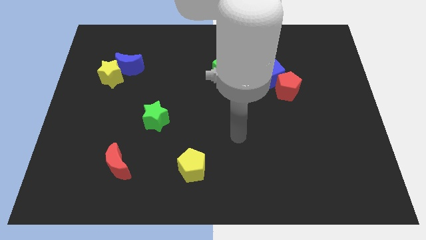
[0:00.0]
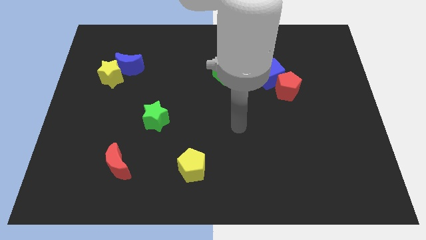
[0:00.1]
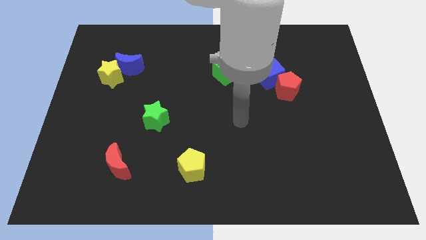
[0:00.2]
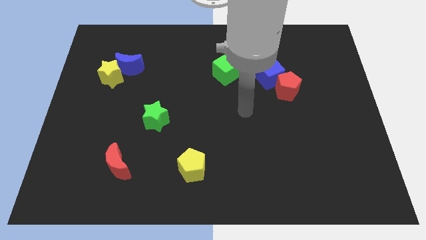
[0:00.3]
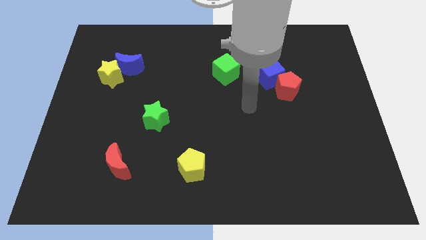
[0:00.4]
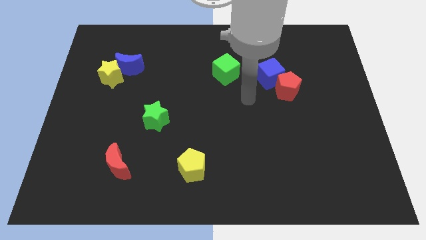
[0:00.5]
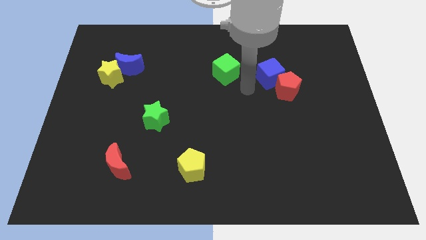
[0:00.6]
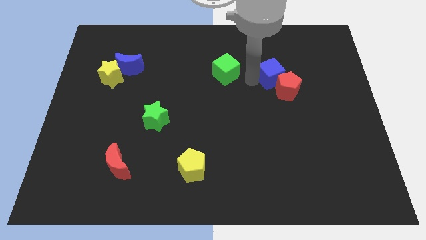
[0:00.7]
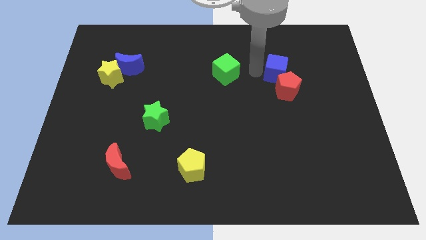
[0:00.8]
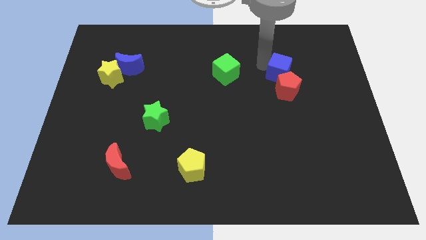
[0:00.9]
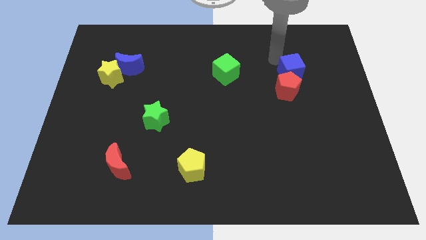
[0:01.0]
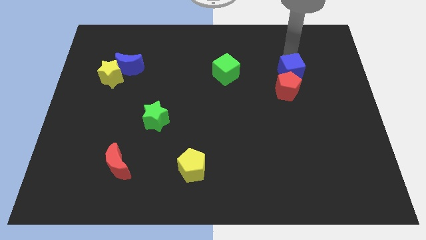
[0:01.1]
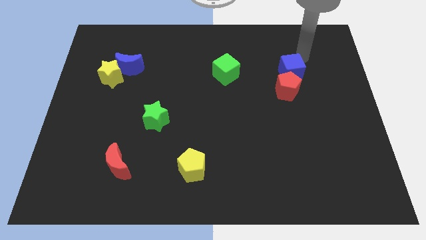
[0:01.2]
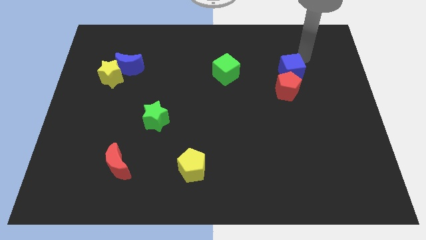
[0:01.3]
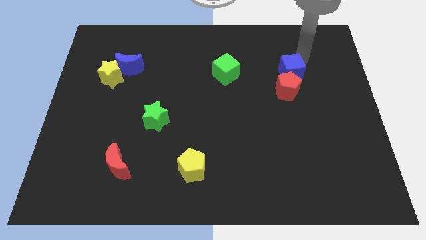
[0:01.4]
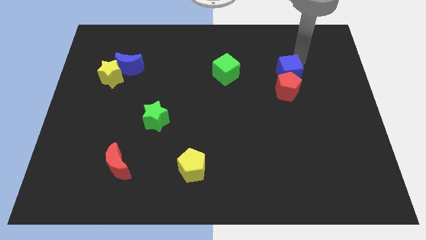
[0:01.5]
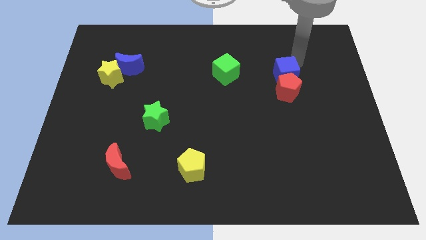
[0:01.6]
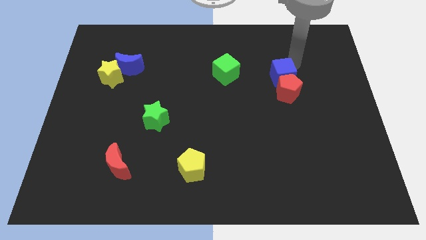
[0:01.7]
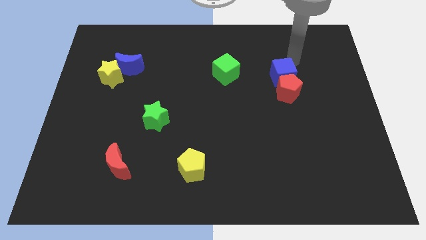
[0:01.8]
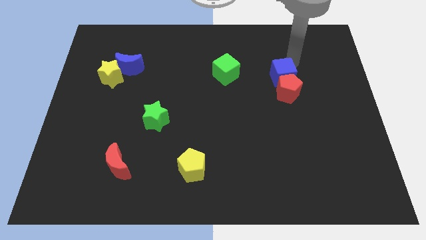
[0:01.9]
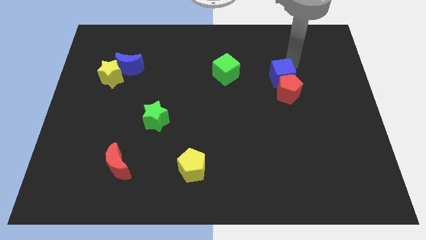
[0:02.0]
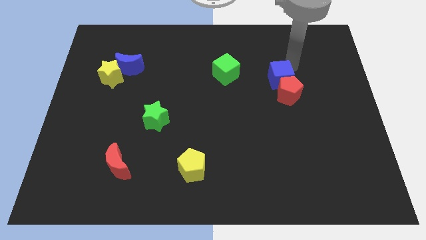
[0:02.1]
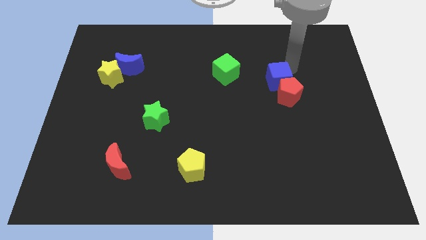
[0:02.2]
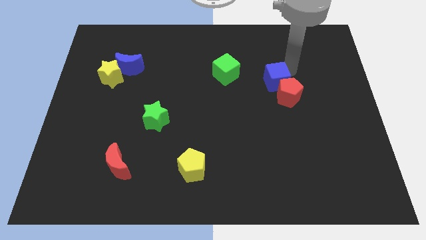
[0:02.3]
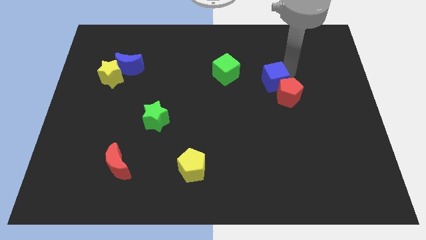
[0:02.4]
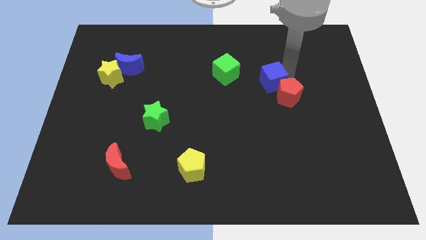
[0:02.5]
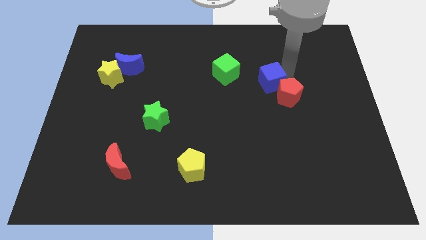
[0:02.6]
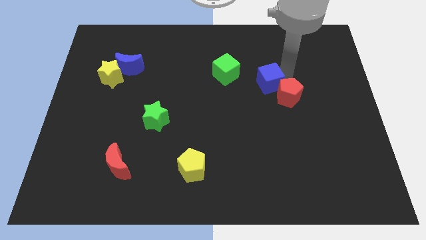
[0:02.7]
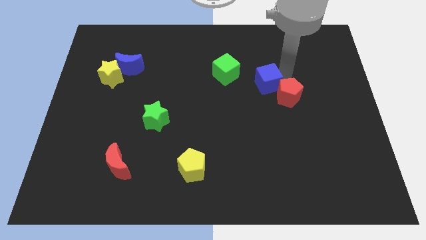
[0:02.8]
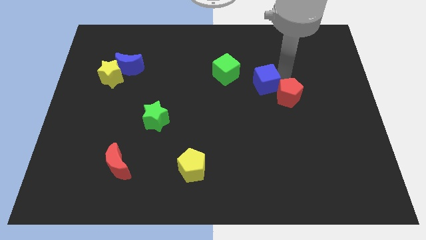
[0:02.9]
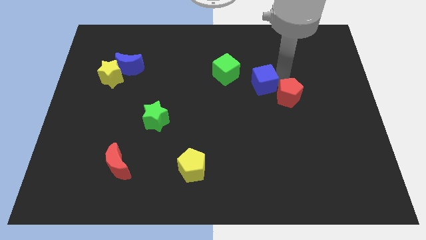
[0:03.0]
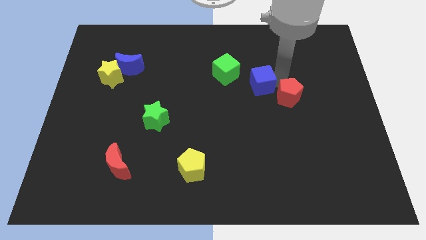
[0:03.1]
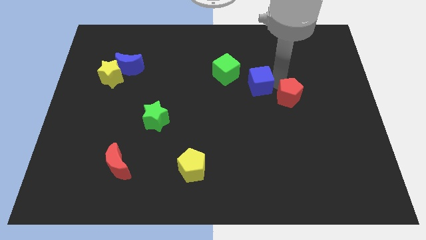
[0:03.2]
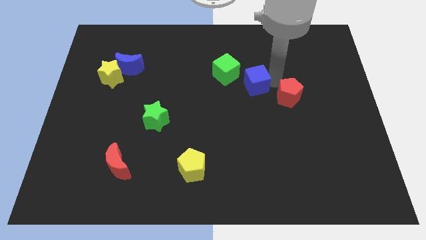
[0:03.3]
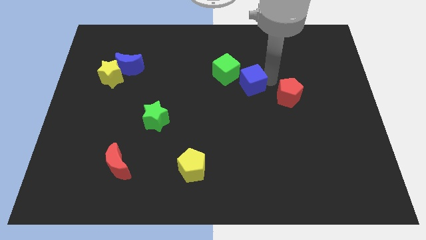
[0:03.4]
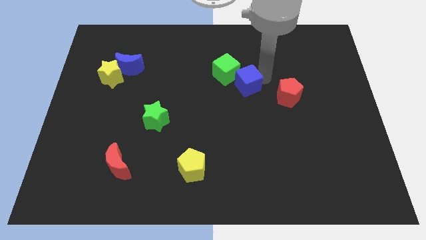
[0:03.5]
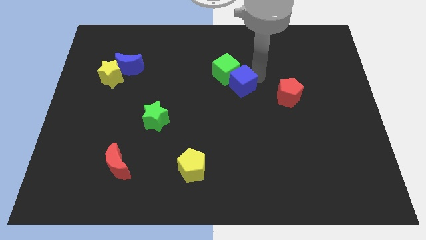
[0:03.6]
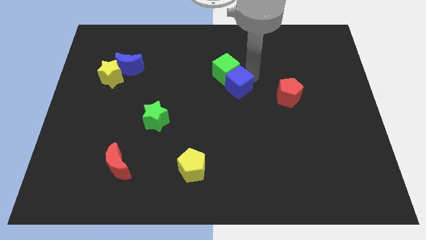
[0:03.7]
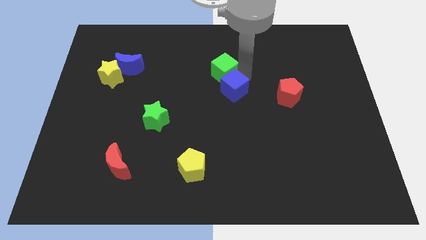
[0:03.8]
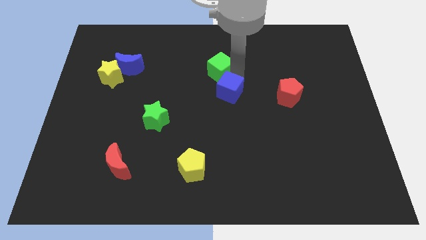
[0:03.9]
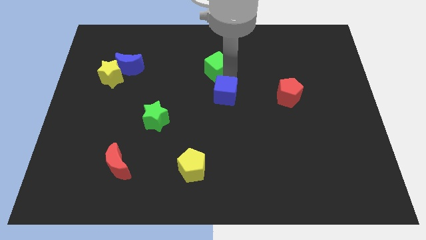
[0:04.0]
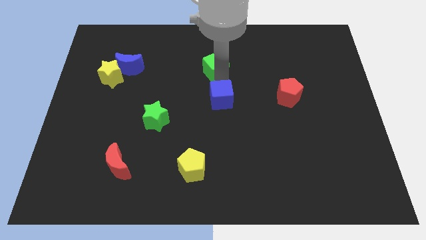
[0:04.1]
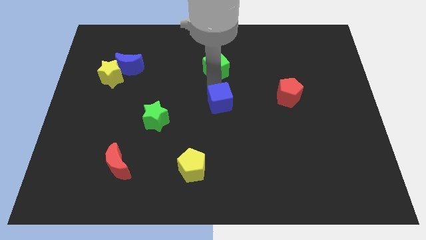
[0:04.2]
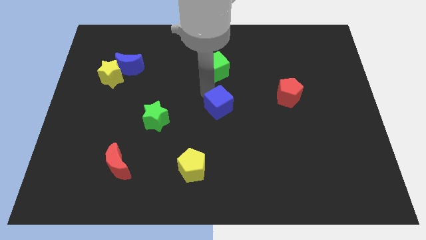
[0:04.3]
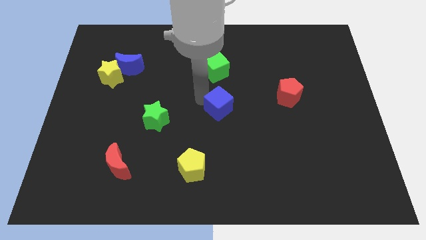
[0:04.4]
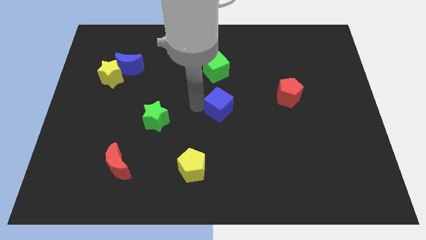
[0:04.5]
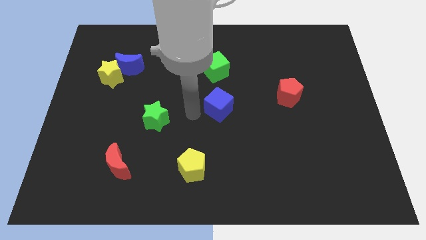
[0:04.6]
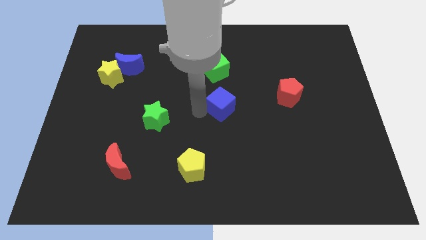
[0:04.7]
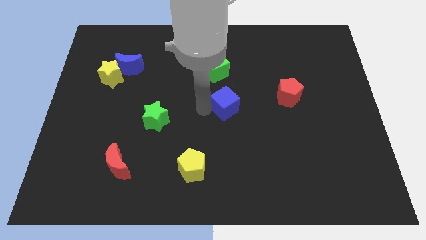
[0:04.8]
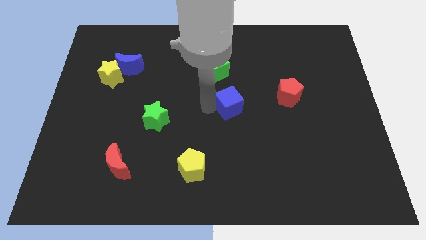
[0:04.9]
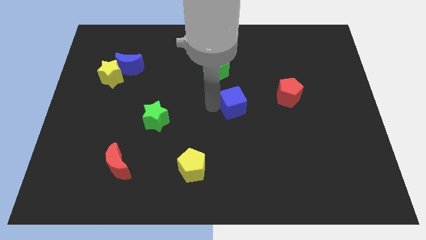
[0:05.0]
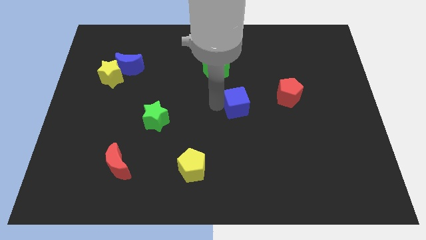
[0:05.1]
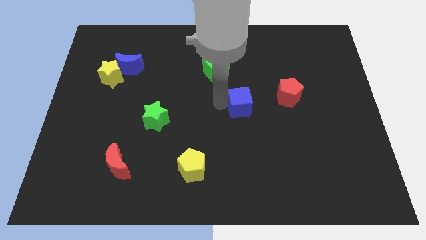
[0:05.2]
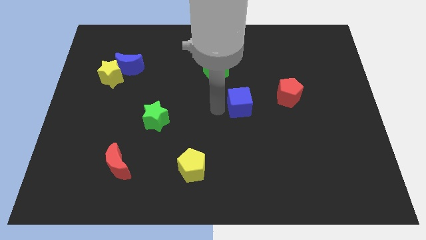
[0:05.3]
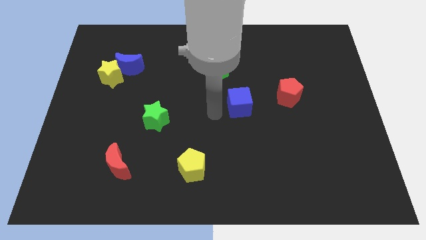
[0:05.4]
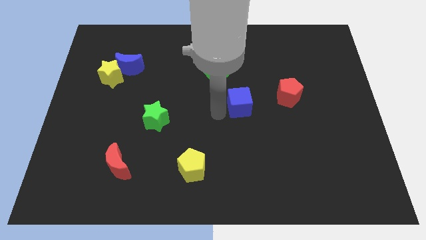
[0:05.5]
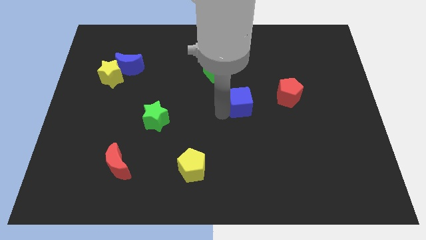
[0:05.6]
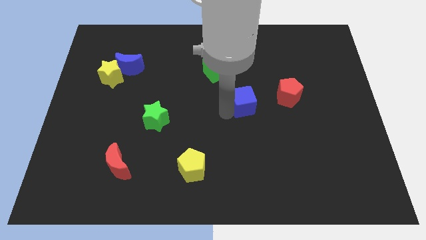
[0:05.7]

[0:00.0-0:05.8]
move the blue cube slightly downwards

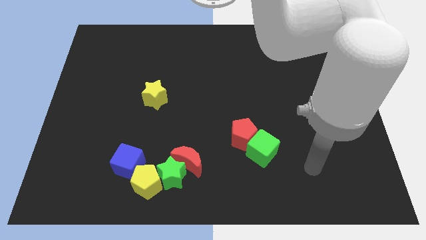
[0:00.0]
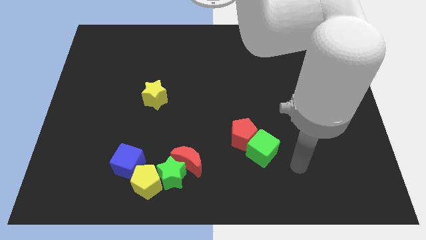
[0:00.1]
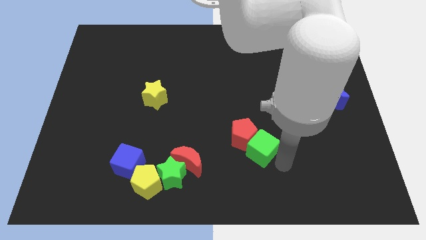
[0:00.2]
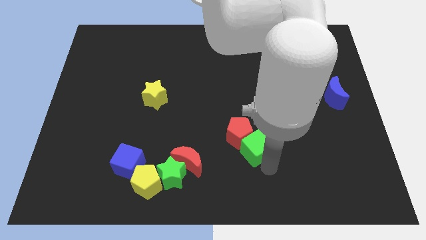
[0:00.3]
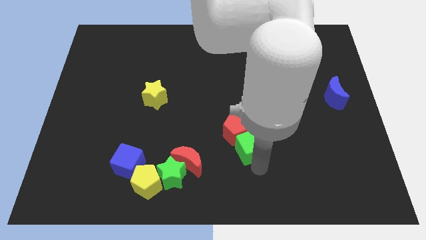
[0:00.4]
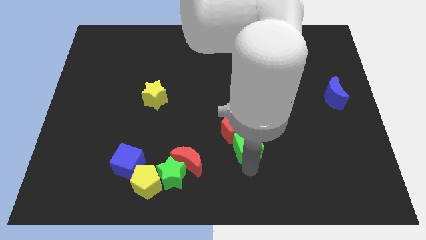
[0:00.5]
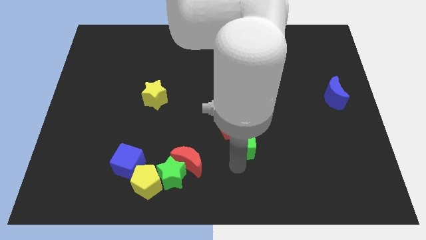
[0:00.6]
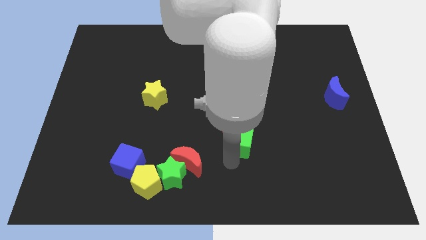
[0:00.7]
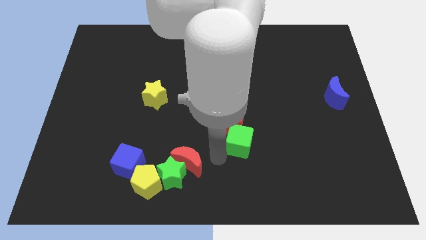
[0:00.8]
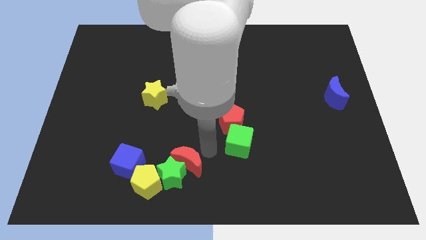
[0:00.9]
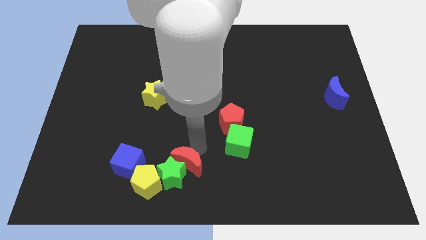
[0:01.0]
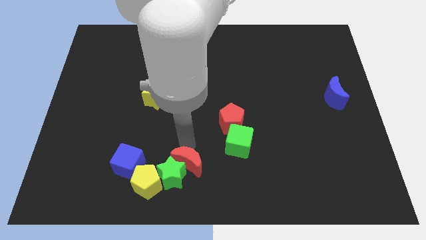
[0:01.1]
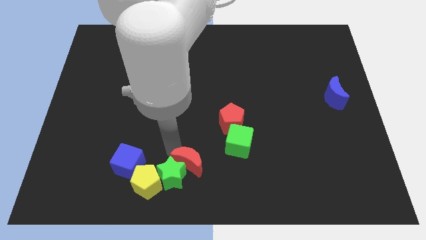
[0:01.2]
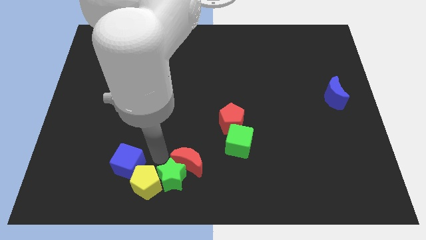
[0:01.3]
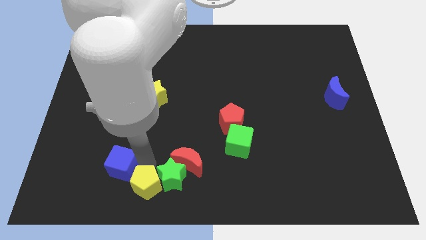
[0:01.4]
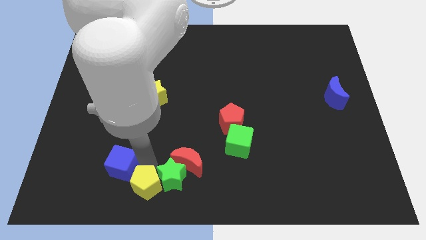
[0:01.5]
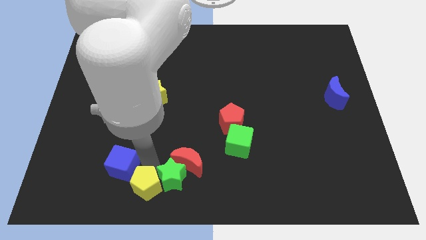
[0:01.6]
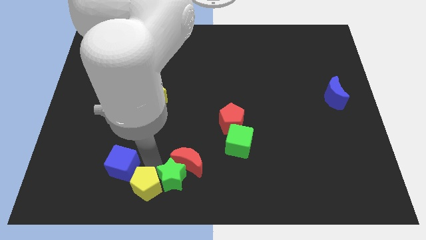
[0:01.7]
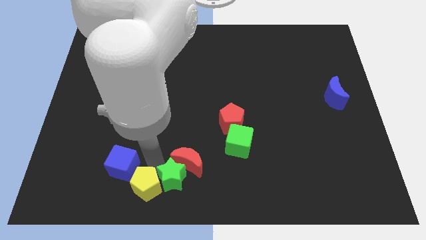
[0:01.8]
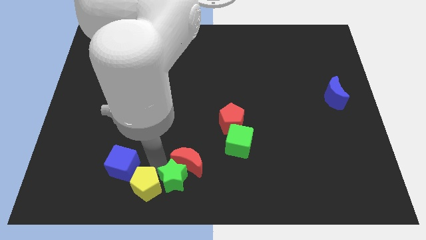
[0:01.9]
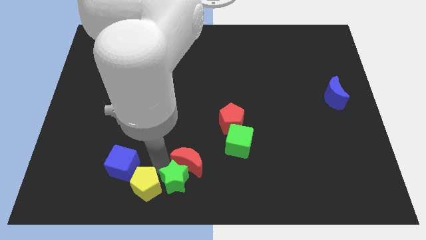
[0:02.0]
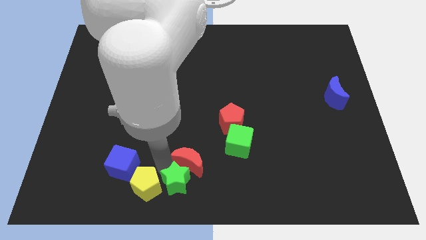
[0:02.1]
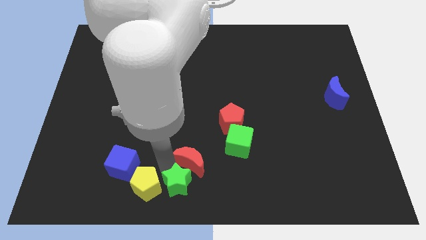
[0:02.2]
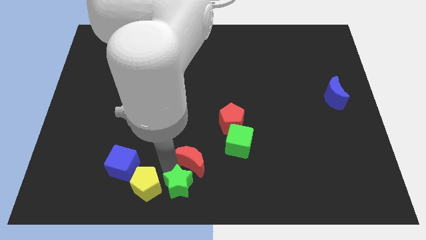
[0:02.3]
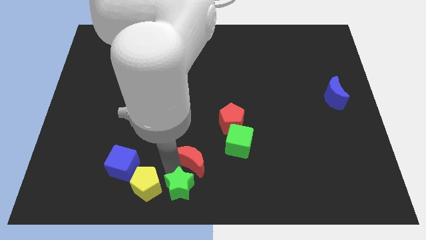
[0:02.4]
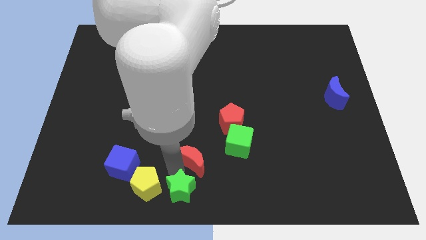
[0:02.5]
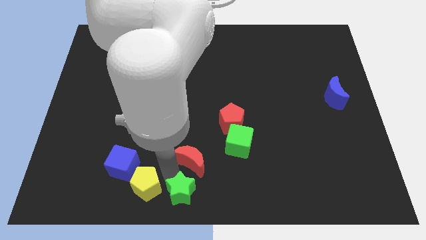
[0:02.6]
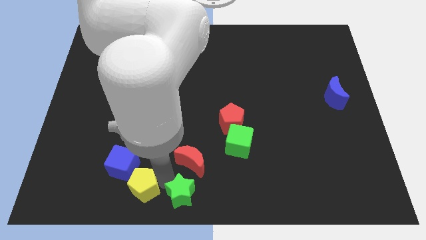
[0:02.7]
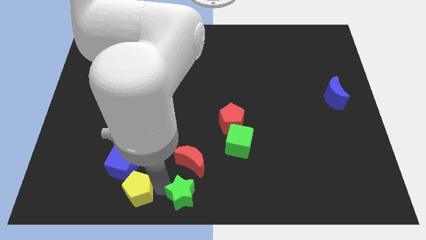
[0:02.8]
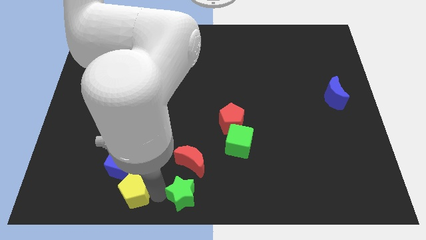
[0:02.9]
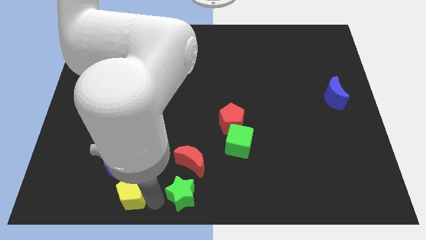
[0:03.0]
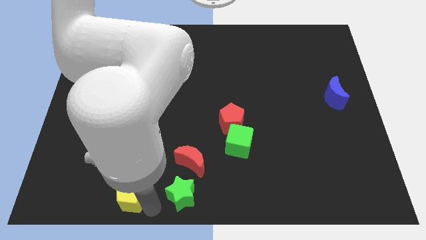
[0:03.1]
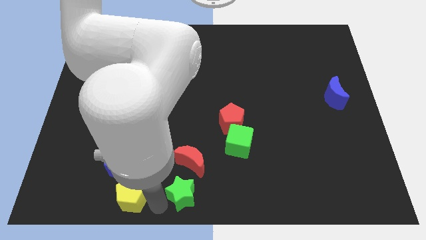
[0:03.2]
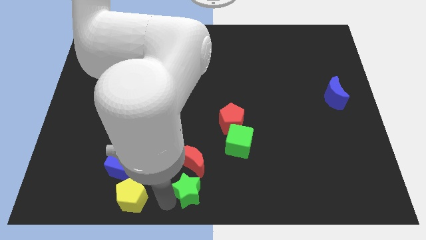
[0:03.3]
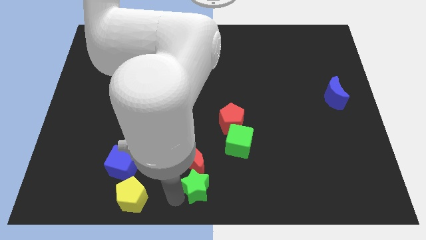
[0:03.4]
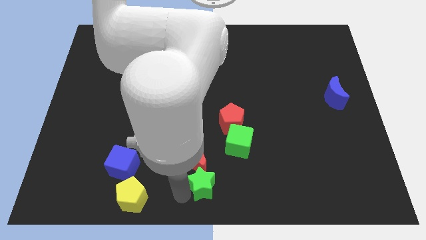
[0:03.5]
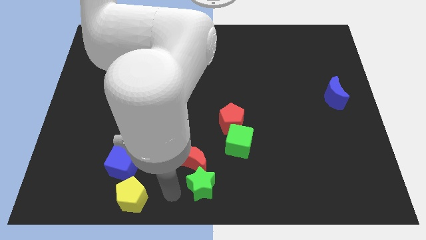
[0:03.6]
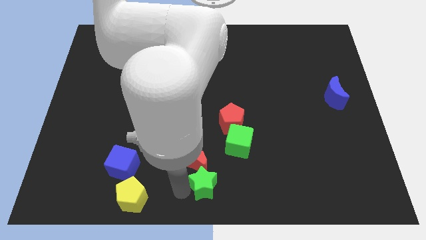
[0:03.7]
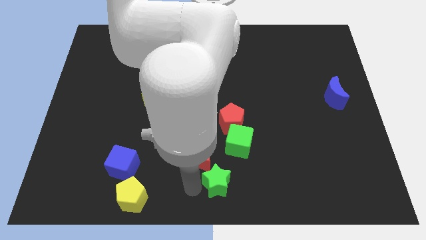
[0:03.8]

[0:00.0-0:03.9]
move the green star slightly to the right
